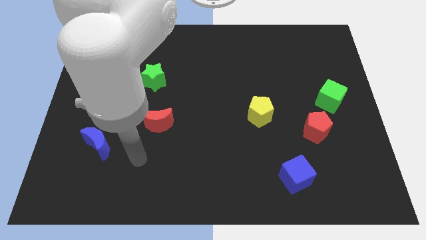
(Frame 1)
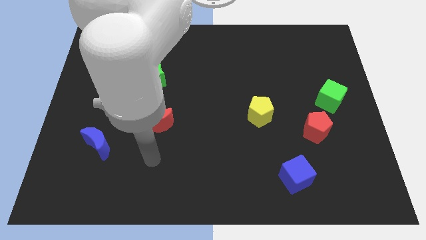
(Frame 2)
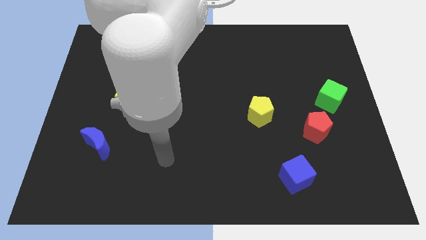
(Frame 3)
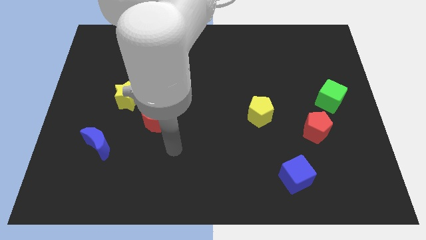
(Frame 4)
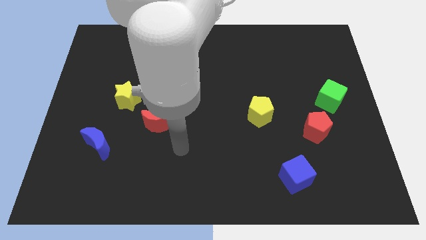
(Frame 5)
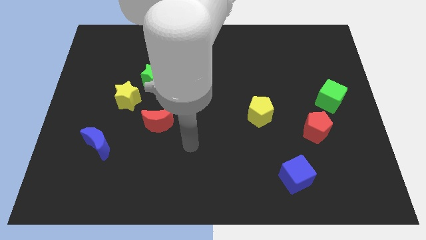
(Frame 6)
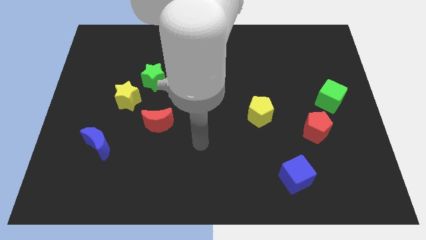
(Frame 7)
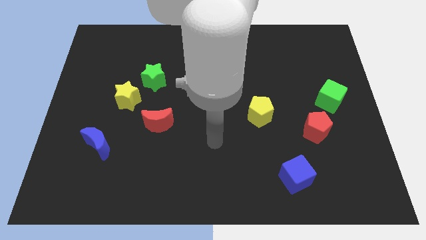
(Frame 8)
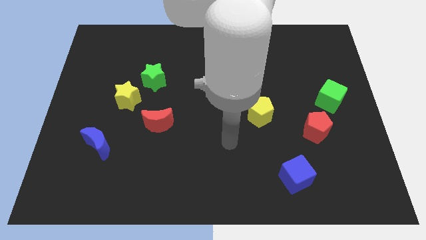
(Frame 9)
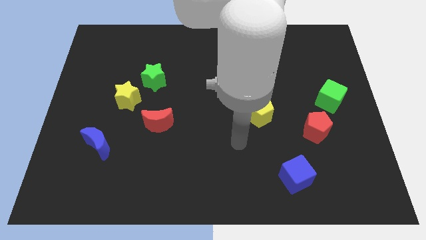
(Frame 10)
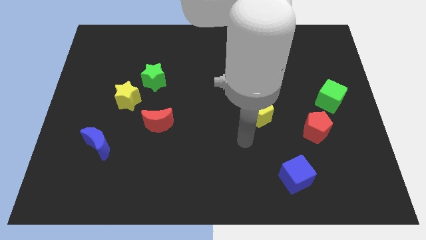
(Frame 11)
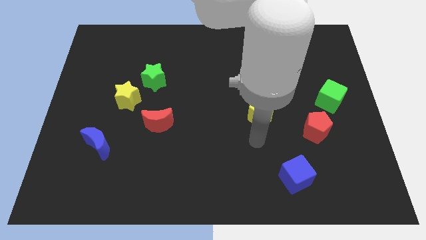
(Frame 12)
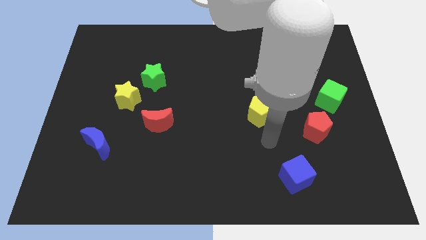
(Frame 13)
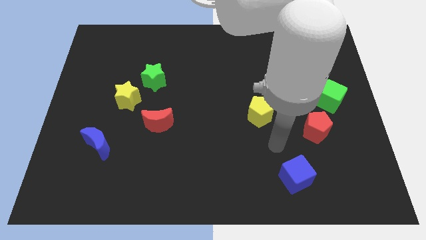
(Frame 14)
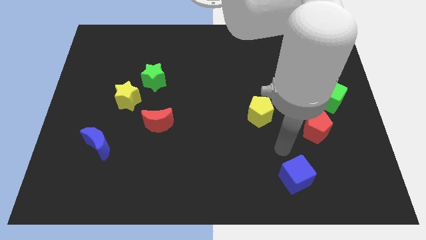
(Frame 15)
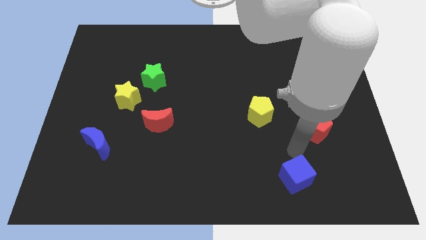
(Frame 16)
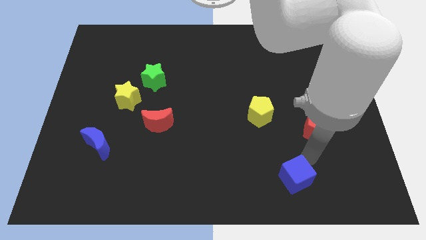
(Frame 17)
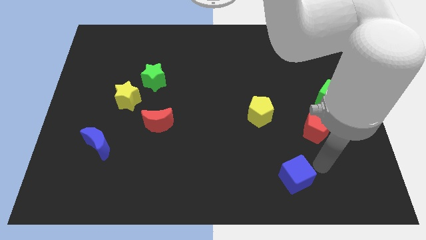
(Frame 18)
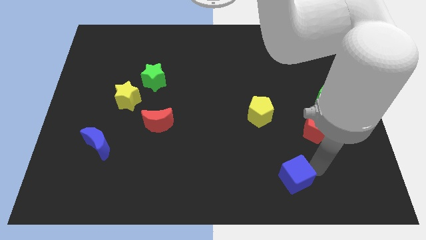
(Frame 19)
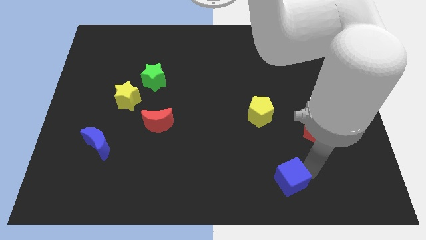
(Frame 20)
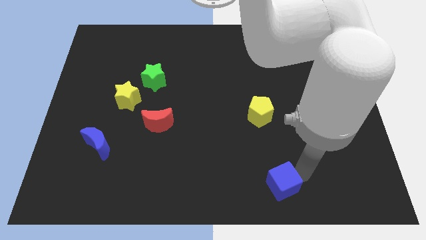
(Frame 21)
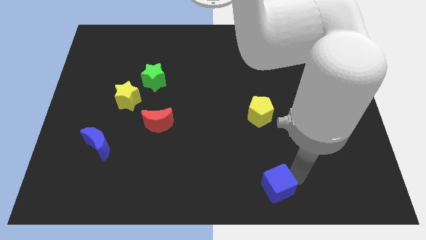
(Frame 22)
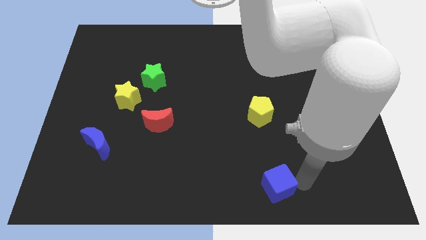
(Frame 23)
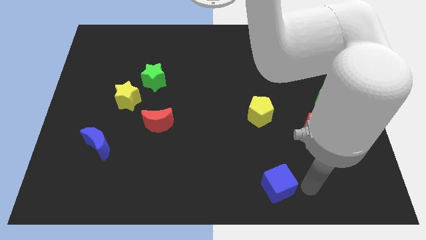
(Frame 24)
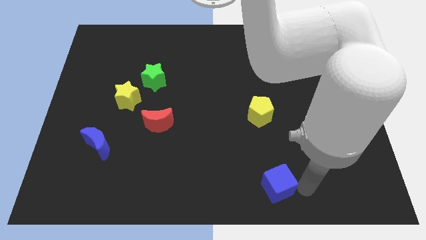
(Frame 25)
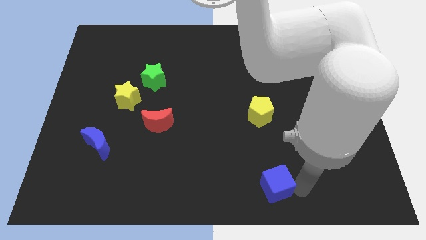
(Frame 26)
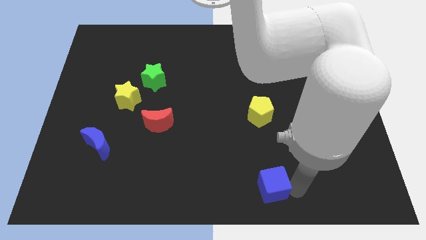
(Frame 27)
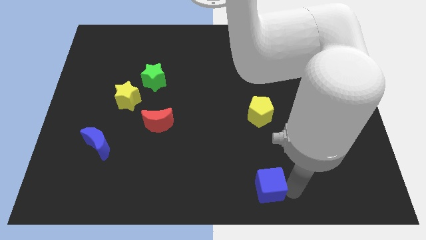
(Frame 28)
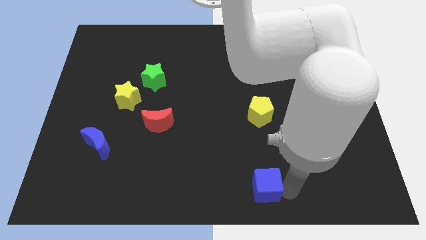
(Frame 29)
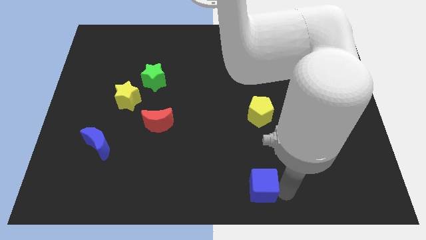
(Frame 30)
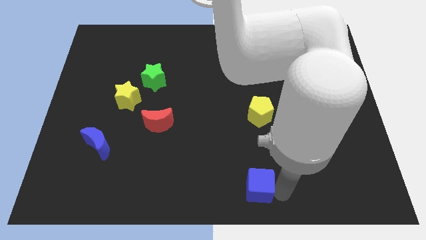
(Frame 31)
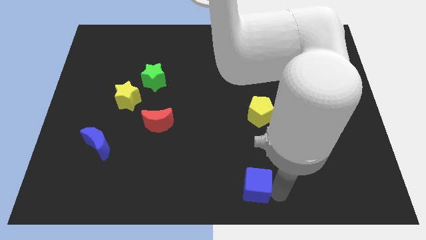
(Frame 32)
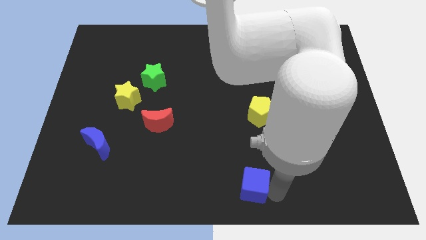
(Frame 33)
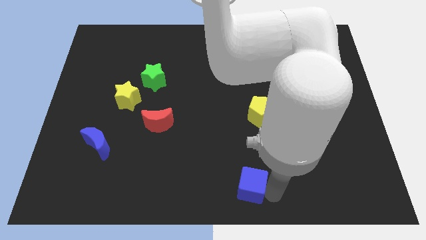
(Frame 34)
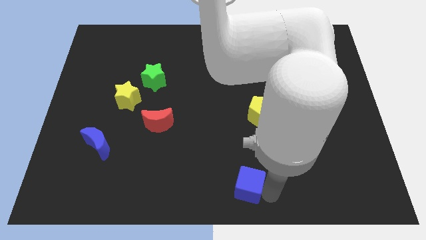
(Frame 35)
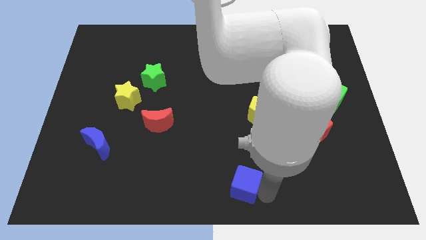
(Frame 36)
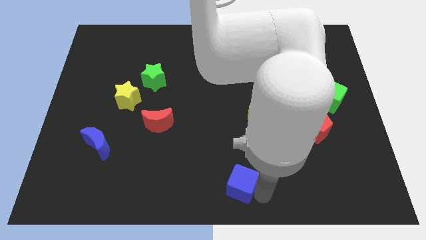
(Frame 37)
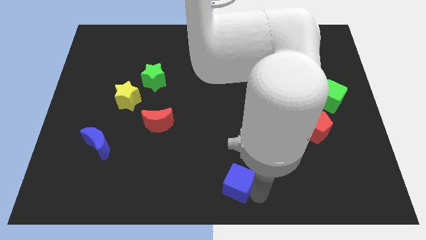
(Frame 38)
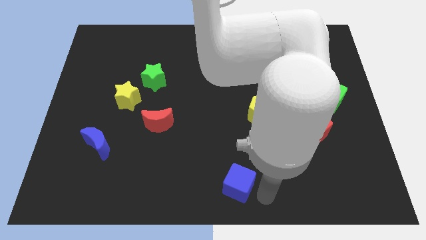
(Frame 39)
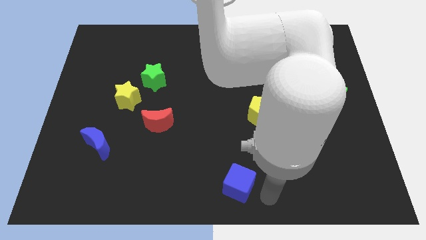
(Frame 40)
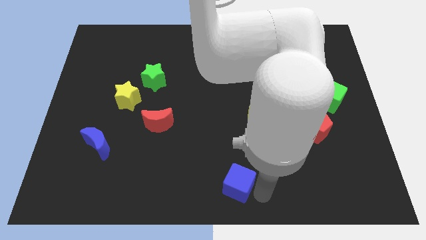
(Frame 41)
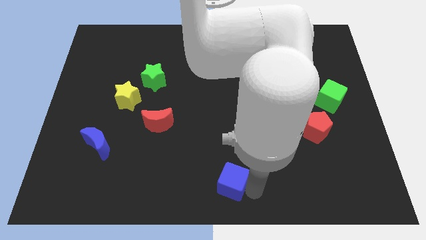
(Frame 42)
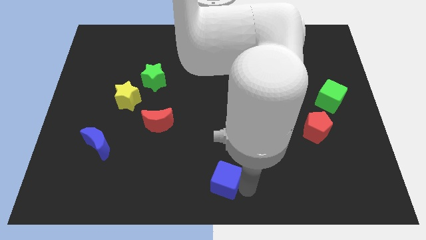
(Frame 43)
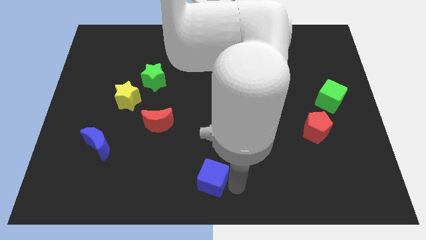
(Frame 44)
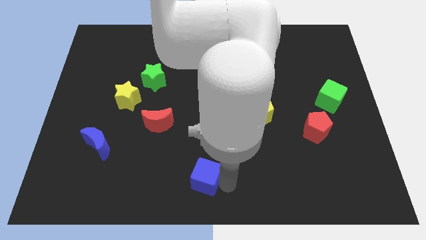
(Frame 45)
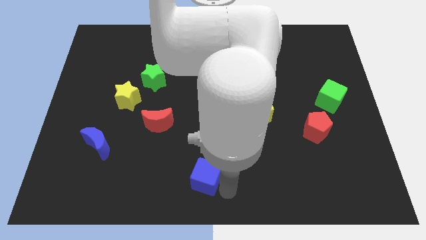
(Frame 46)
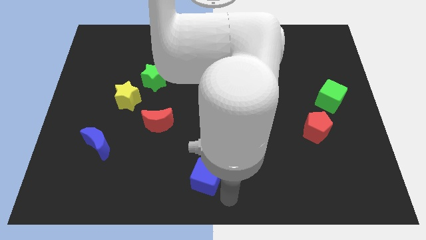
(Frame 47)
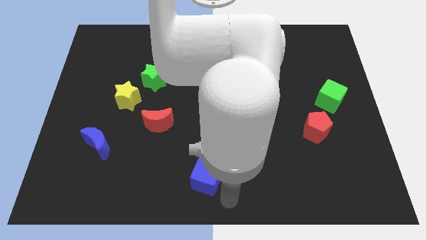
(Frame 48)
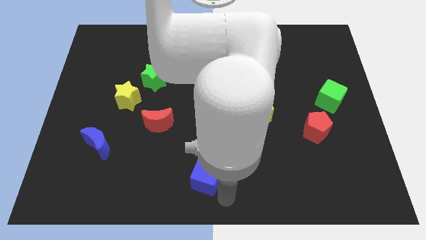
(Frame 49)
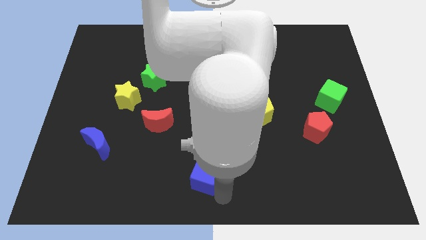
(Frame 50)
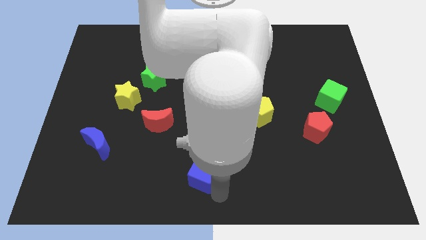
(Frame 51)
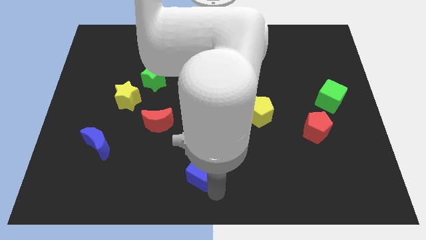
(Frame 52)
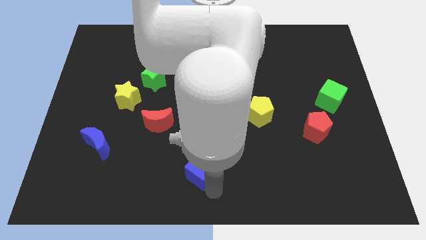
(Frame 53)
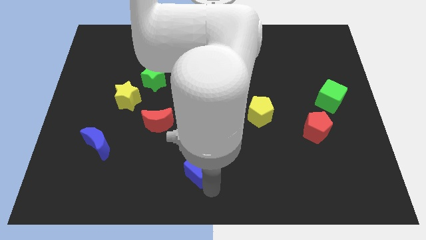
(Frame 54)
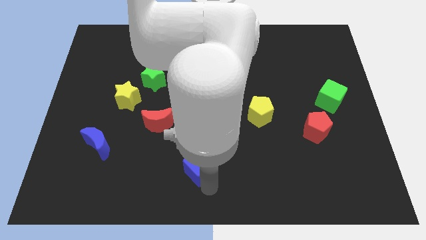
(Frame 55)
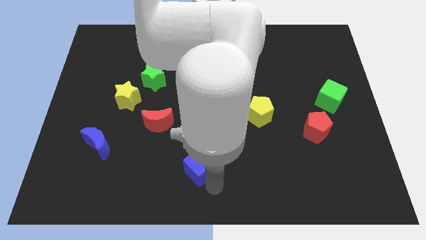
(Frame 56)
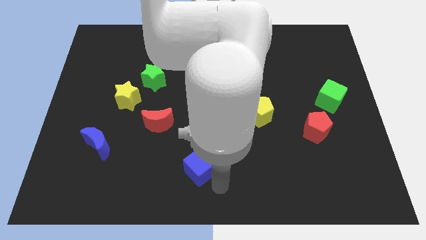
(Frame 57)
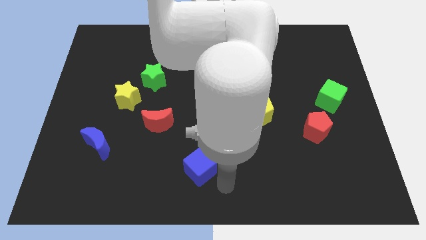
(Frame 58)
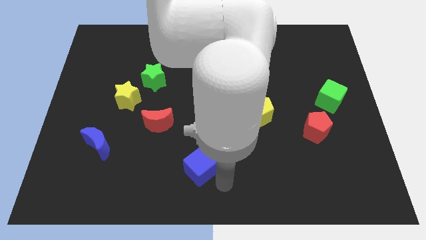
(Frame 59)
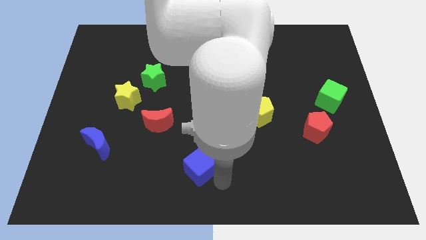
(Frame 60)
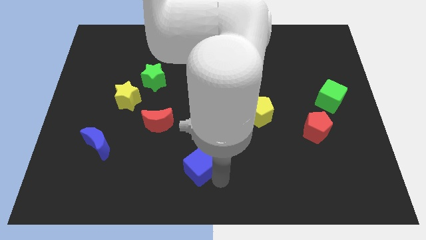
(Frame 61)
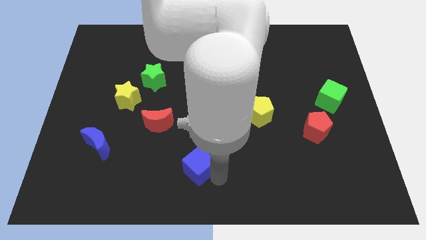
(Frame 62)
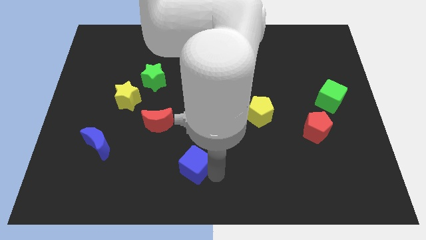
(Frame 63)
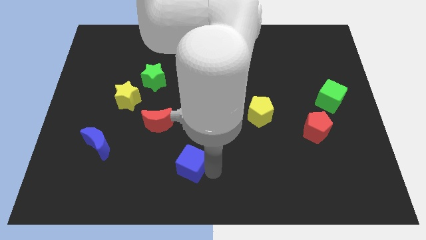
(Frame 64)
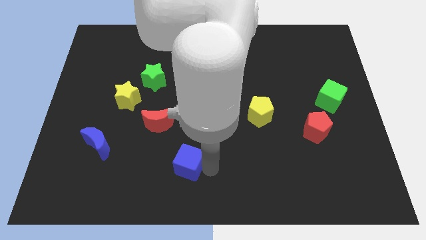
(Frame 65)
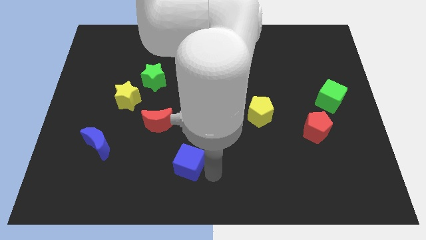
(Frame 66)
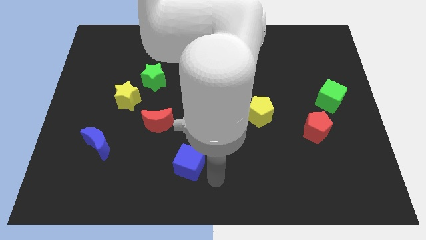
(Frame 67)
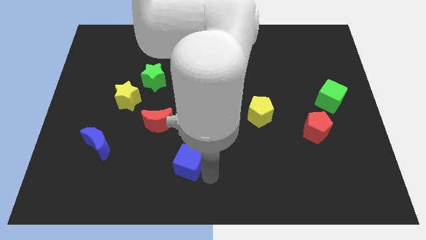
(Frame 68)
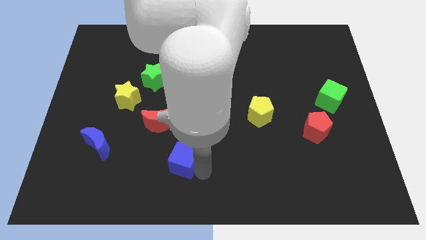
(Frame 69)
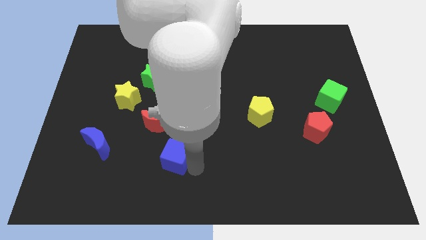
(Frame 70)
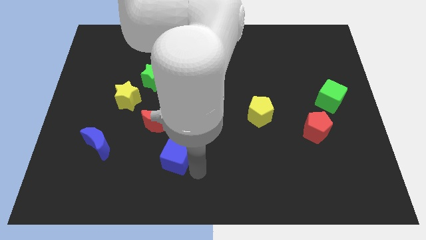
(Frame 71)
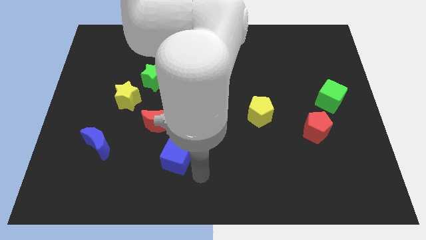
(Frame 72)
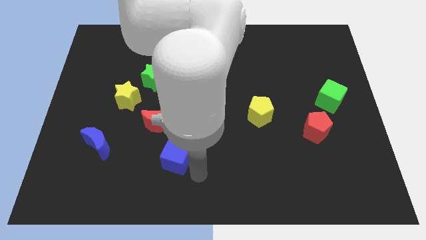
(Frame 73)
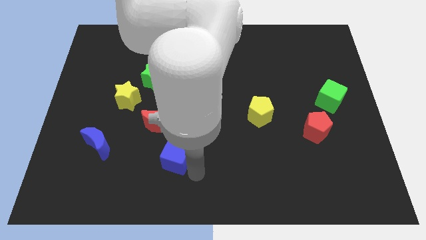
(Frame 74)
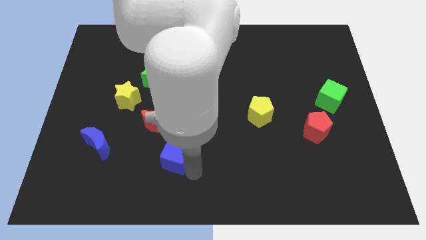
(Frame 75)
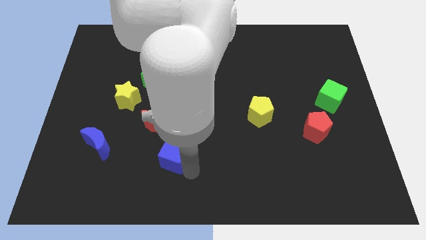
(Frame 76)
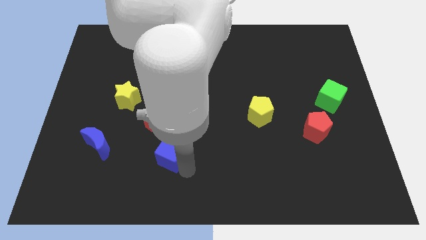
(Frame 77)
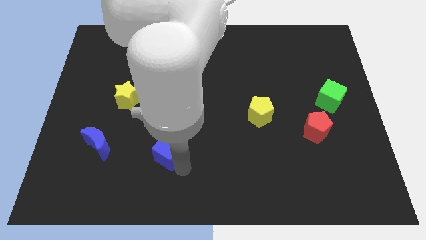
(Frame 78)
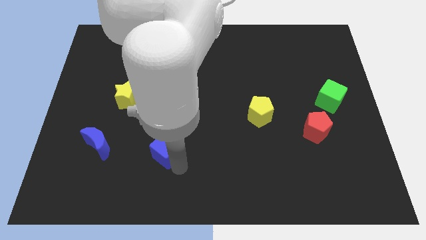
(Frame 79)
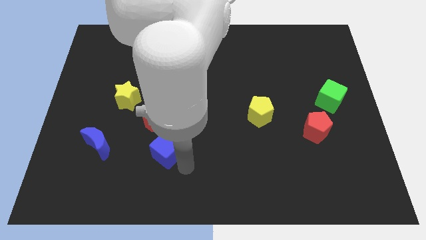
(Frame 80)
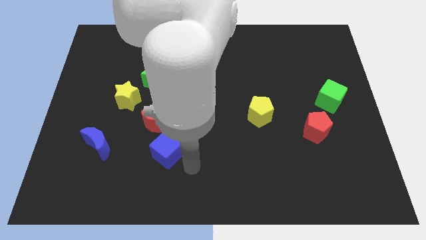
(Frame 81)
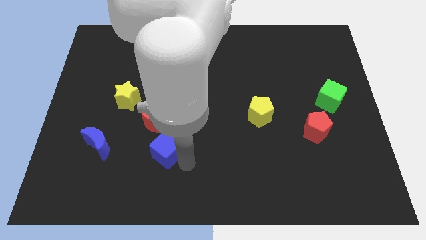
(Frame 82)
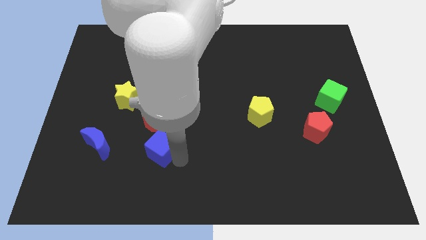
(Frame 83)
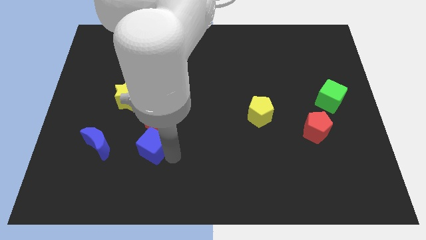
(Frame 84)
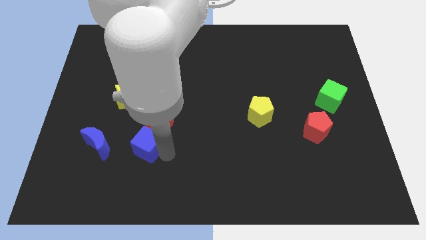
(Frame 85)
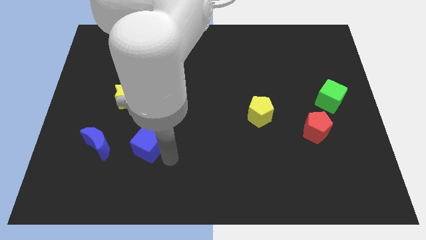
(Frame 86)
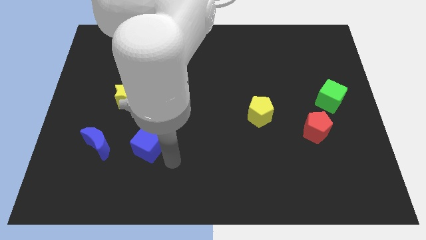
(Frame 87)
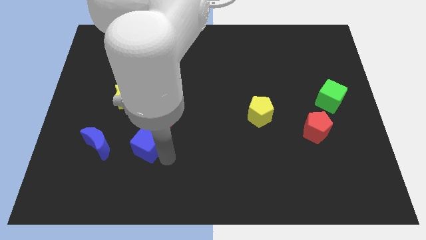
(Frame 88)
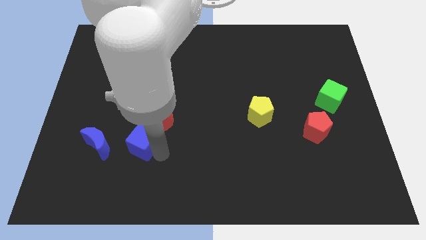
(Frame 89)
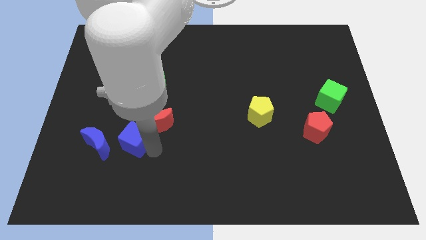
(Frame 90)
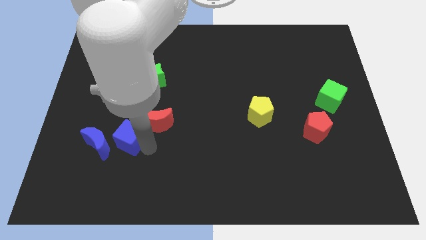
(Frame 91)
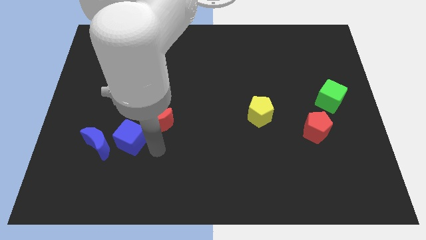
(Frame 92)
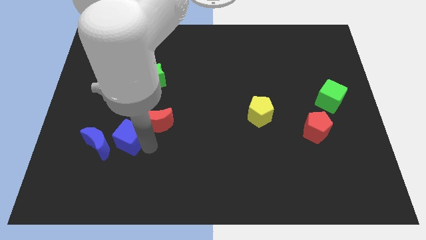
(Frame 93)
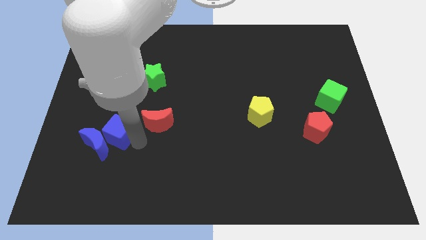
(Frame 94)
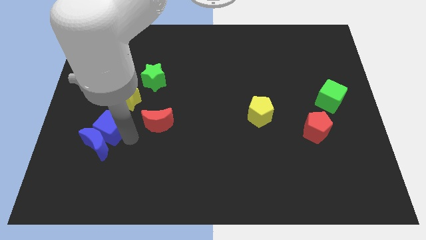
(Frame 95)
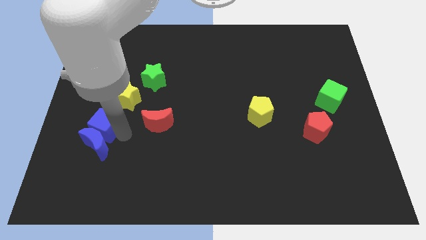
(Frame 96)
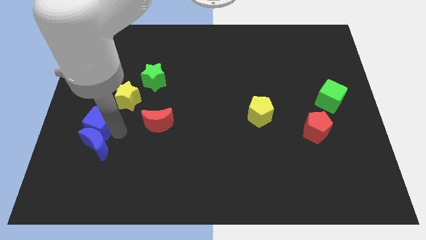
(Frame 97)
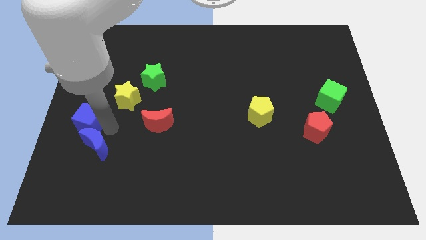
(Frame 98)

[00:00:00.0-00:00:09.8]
push the blue cube to the left side of the board
